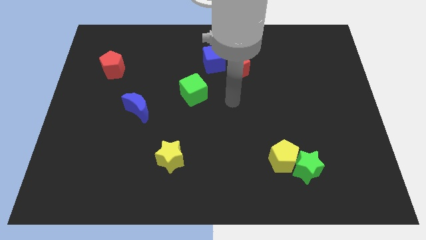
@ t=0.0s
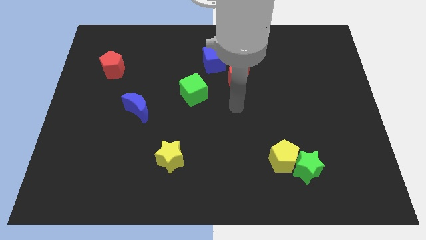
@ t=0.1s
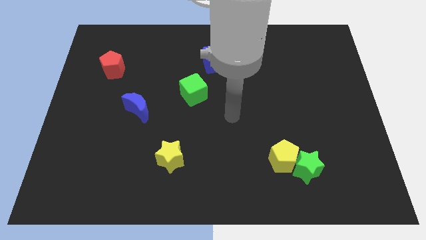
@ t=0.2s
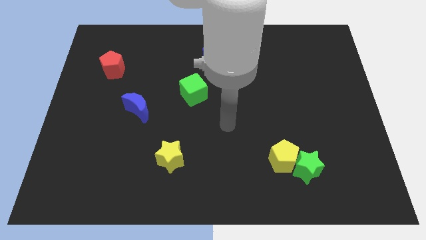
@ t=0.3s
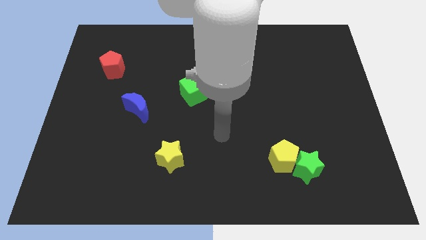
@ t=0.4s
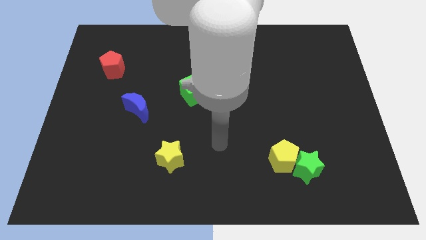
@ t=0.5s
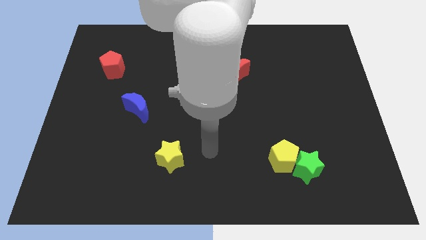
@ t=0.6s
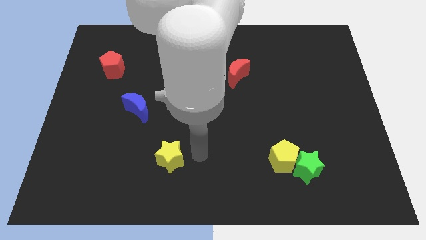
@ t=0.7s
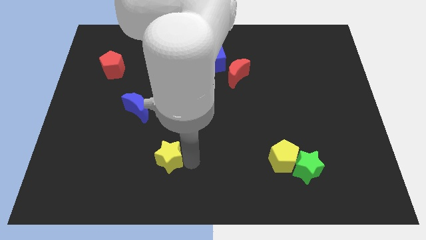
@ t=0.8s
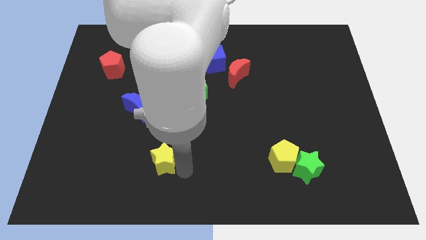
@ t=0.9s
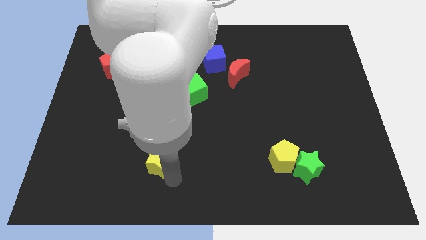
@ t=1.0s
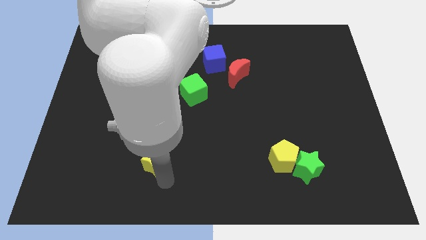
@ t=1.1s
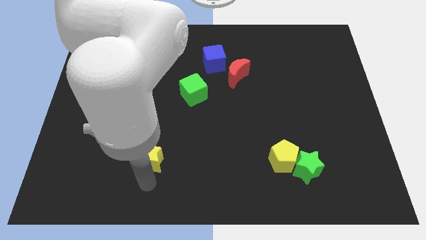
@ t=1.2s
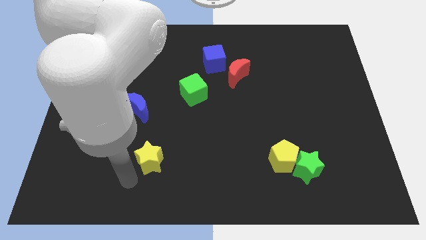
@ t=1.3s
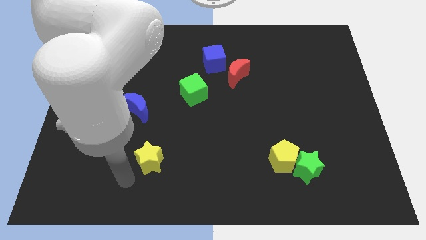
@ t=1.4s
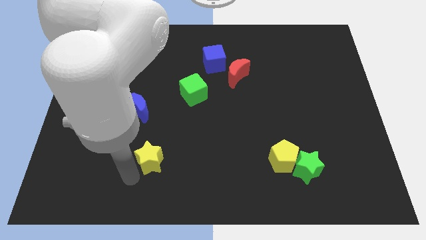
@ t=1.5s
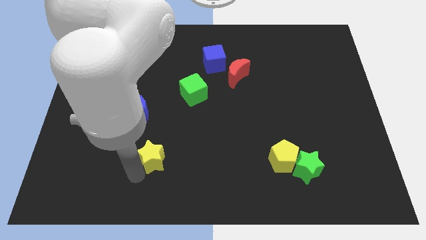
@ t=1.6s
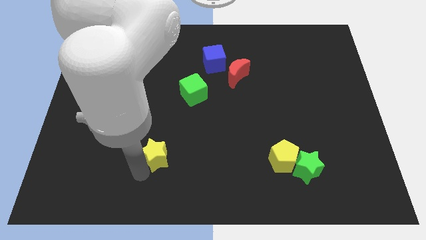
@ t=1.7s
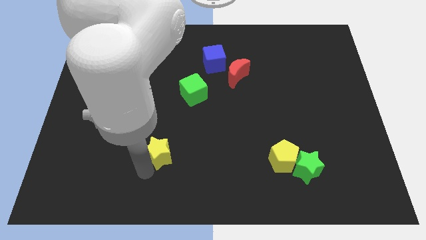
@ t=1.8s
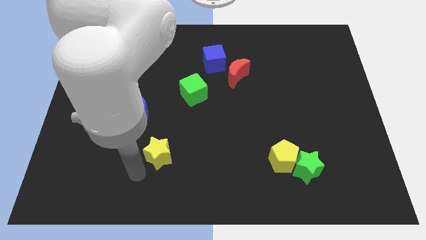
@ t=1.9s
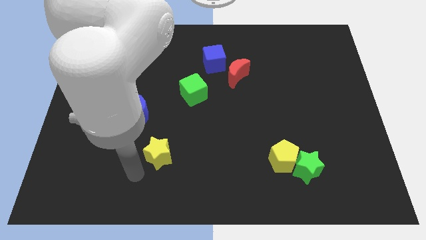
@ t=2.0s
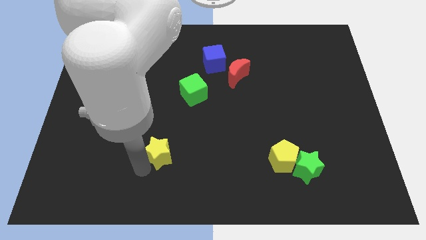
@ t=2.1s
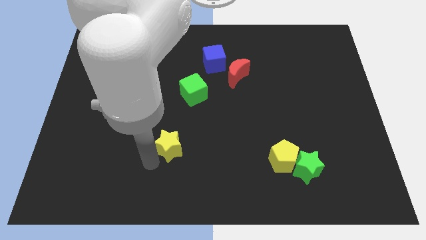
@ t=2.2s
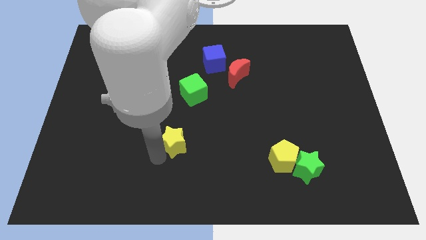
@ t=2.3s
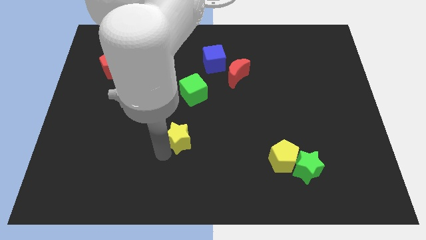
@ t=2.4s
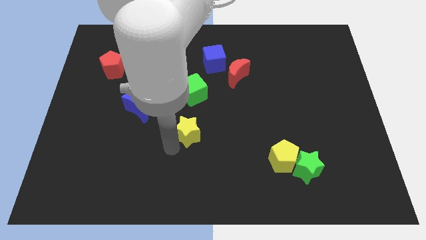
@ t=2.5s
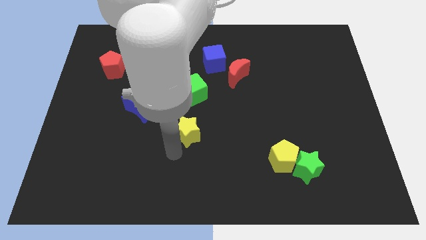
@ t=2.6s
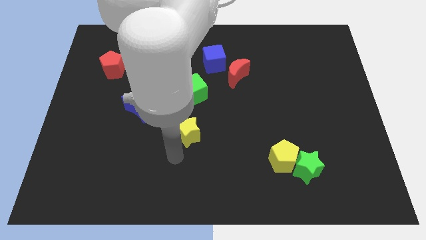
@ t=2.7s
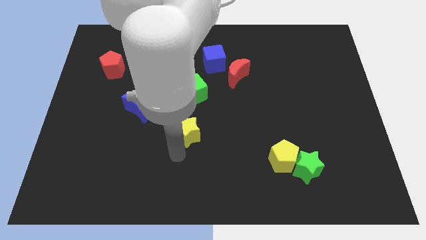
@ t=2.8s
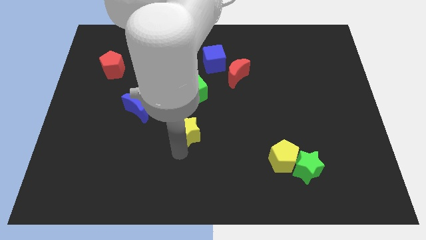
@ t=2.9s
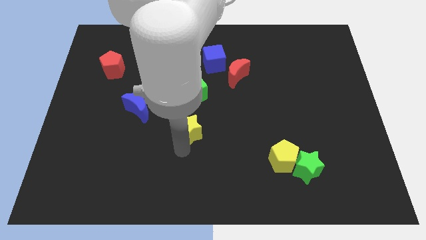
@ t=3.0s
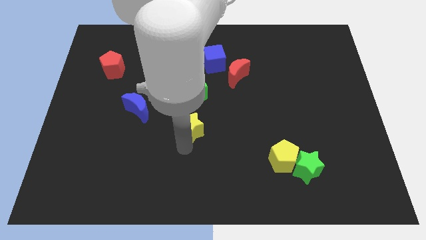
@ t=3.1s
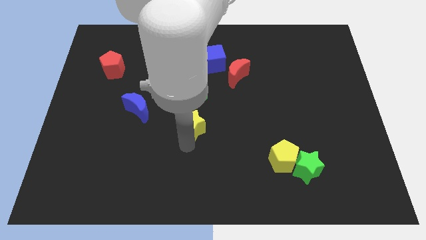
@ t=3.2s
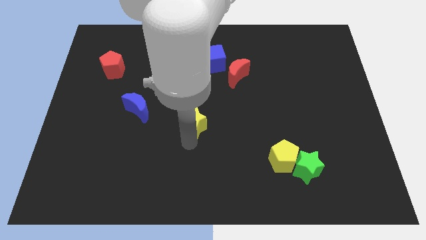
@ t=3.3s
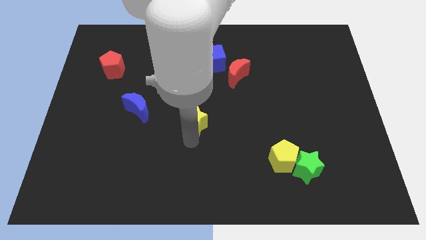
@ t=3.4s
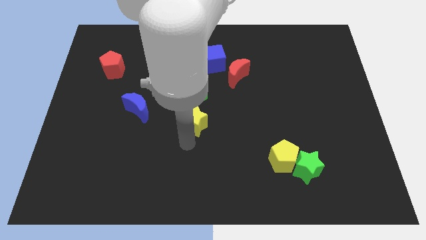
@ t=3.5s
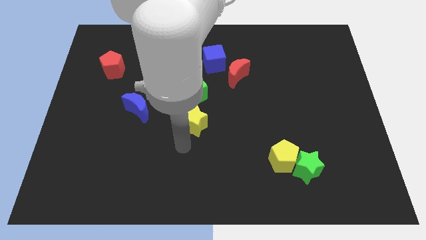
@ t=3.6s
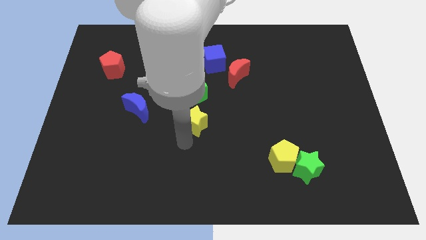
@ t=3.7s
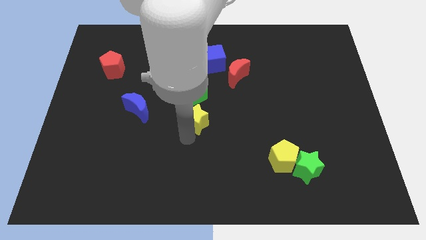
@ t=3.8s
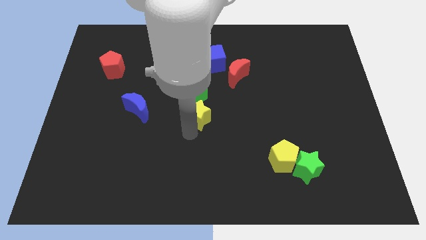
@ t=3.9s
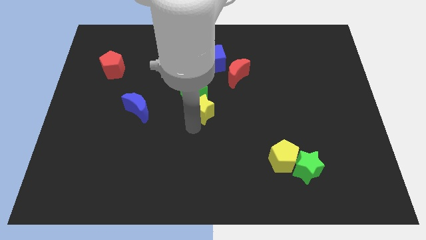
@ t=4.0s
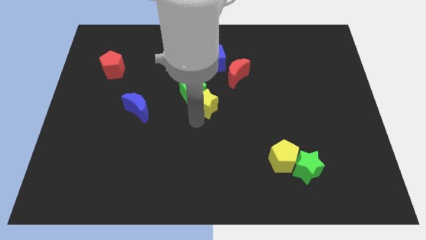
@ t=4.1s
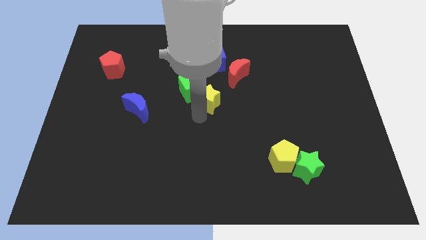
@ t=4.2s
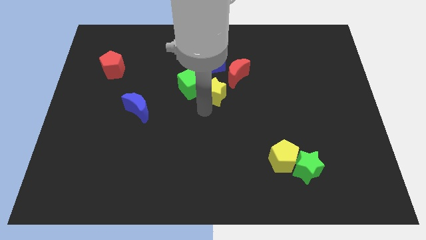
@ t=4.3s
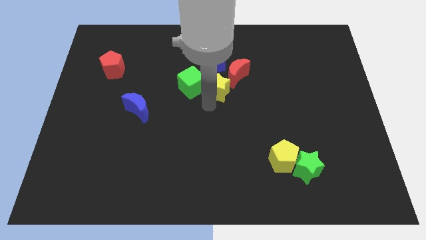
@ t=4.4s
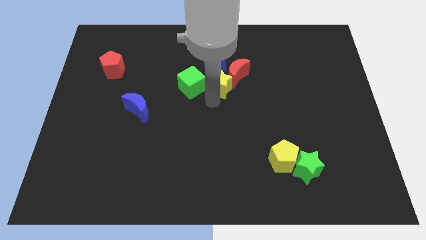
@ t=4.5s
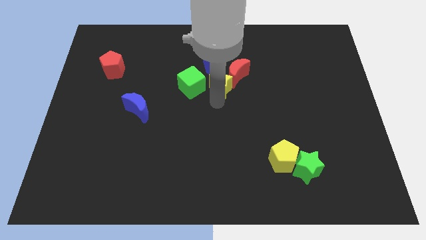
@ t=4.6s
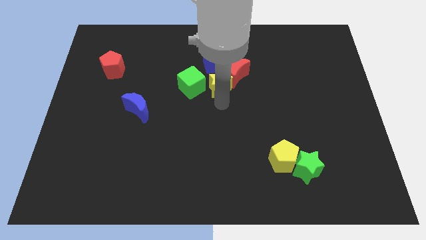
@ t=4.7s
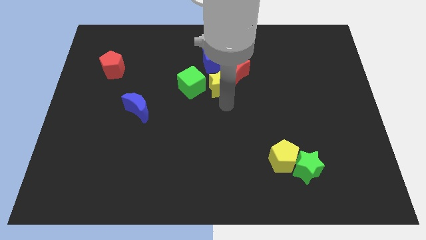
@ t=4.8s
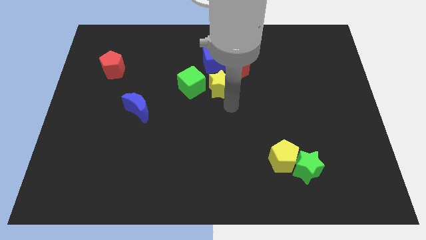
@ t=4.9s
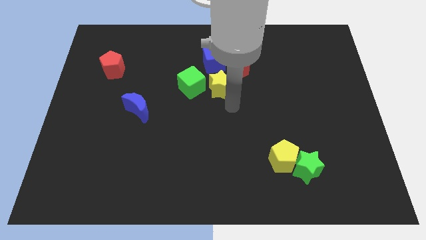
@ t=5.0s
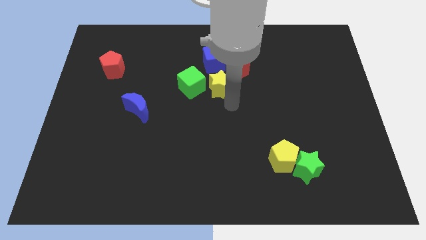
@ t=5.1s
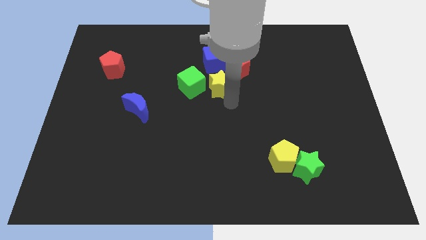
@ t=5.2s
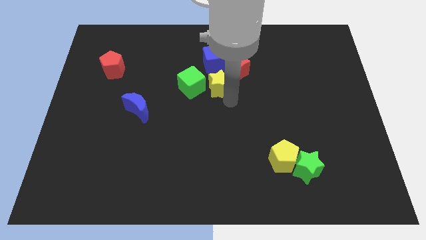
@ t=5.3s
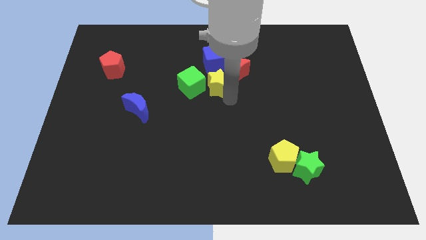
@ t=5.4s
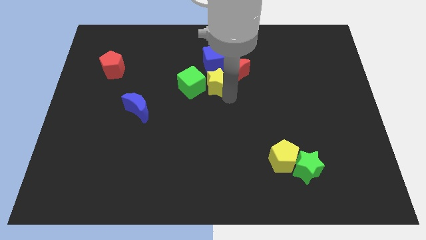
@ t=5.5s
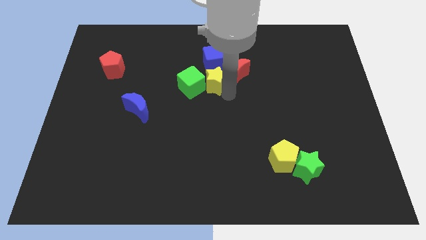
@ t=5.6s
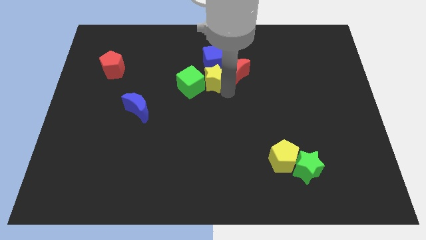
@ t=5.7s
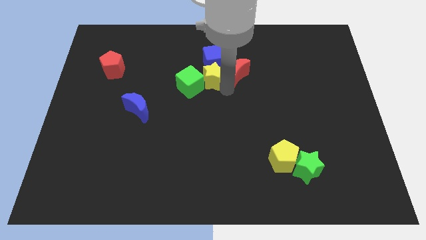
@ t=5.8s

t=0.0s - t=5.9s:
put the yellow star next to the blue cube

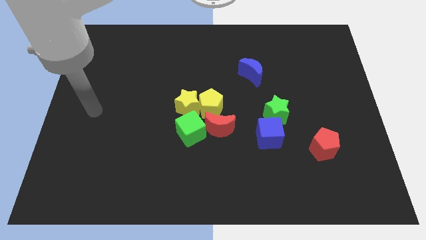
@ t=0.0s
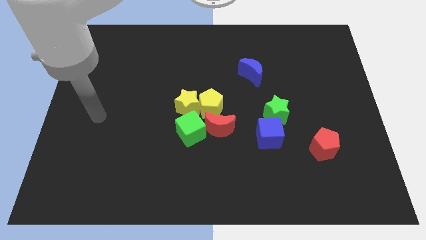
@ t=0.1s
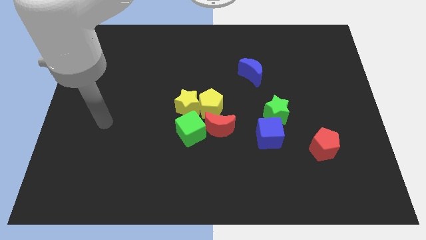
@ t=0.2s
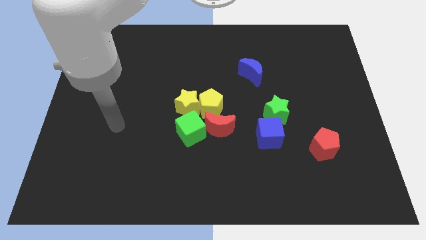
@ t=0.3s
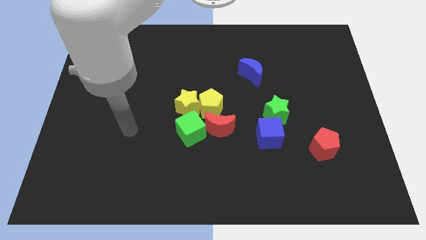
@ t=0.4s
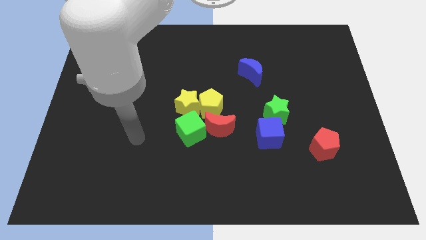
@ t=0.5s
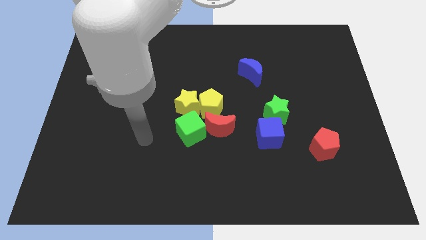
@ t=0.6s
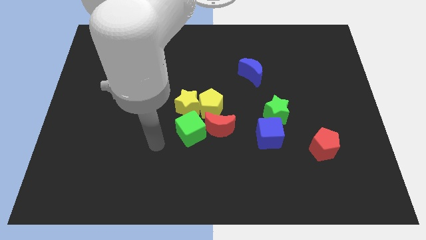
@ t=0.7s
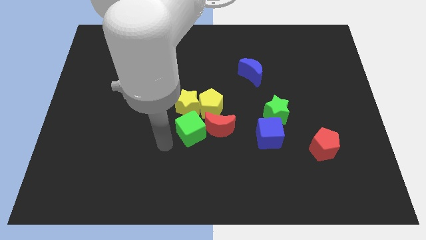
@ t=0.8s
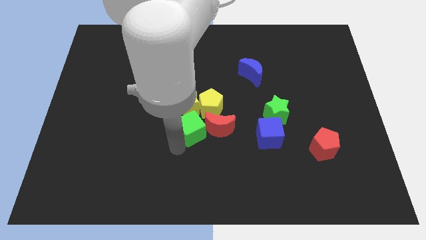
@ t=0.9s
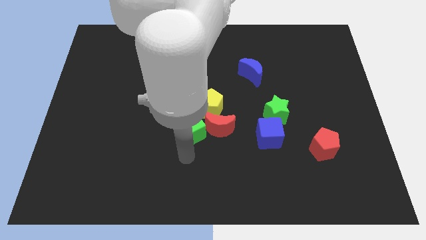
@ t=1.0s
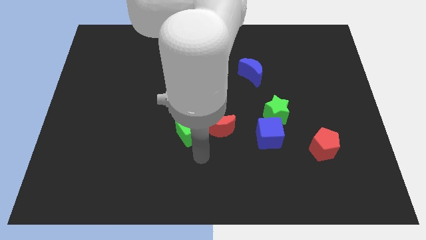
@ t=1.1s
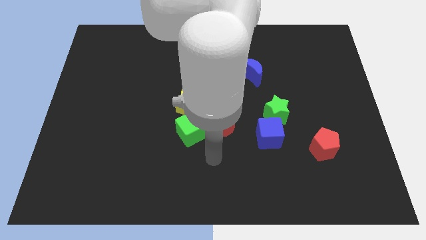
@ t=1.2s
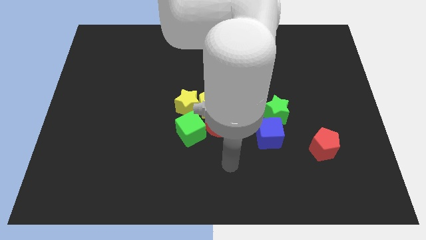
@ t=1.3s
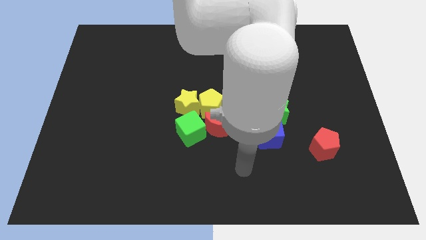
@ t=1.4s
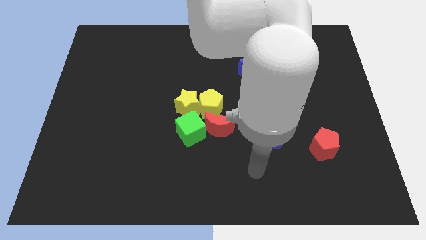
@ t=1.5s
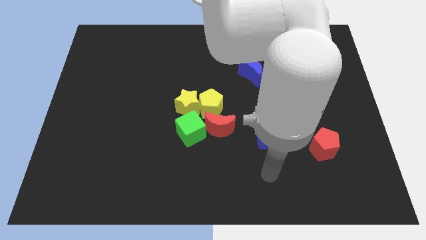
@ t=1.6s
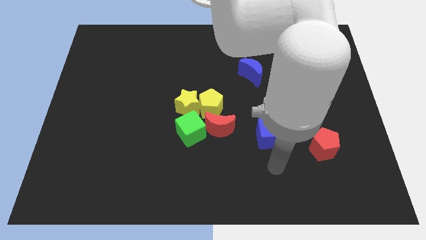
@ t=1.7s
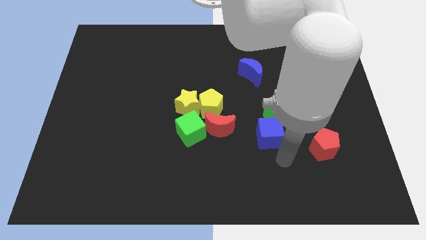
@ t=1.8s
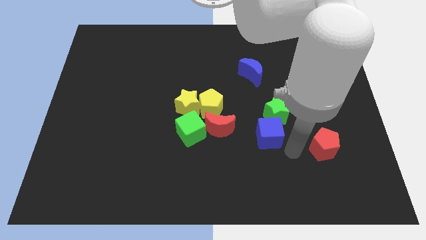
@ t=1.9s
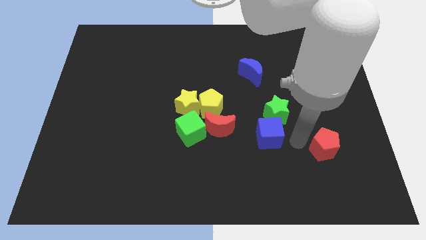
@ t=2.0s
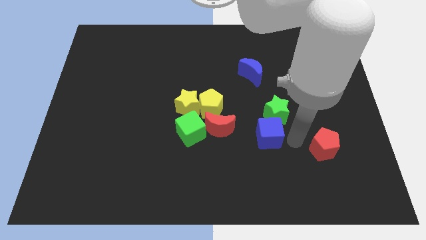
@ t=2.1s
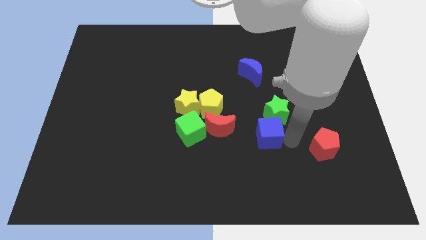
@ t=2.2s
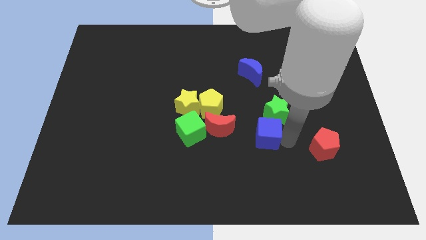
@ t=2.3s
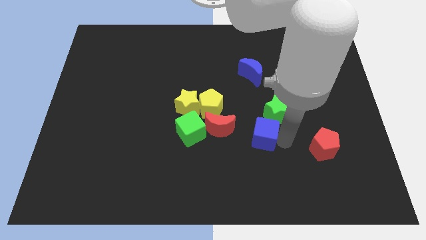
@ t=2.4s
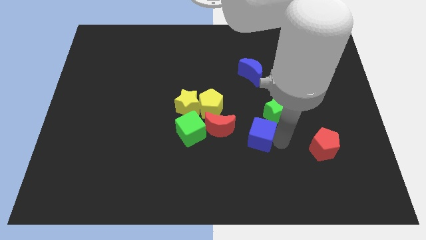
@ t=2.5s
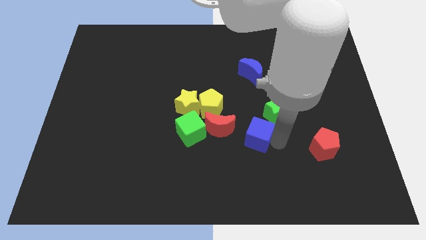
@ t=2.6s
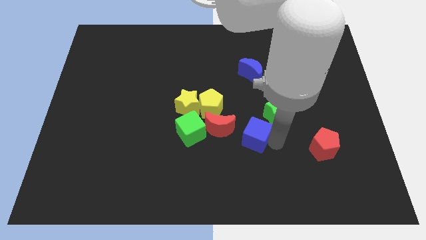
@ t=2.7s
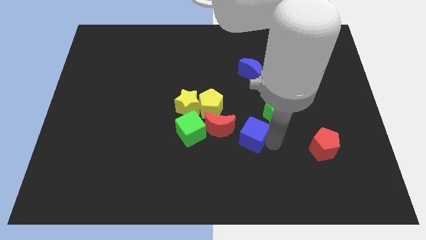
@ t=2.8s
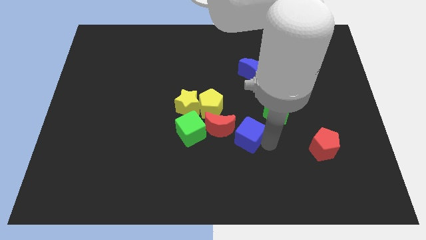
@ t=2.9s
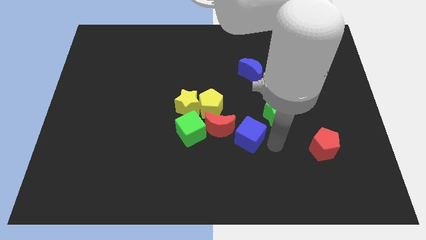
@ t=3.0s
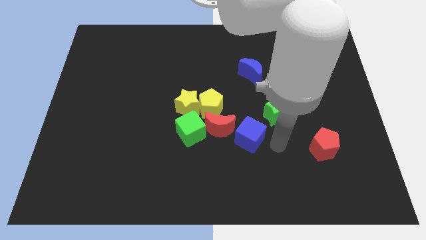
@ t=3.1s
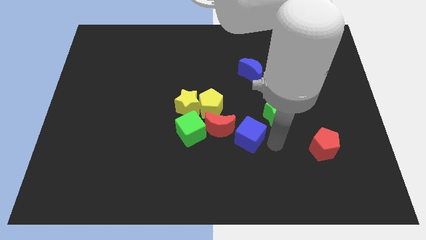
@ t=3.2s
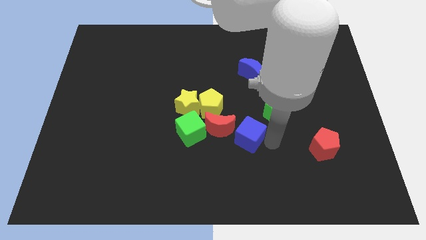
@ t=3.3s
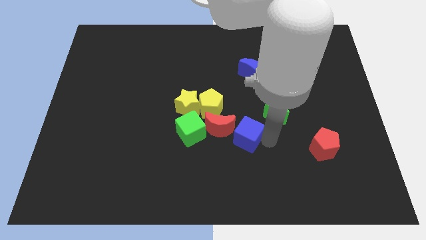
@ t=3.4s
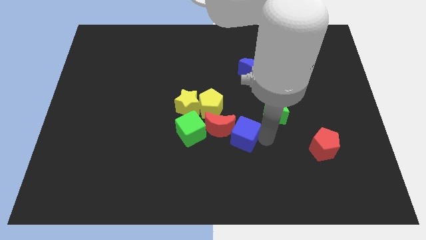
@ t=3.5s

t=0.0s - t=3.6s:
move the blue cube to the red moon
